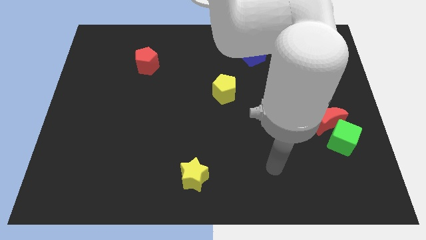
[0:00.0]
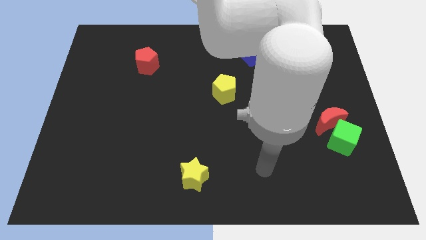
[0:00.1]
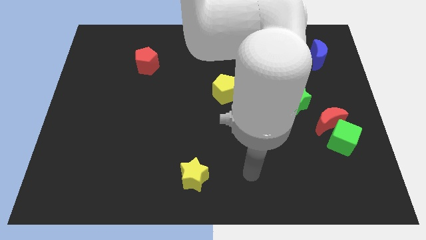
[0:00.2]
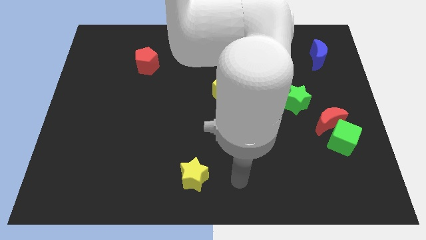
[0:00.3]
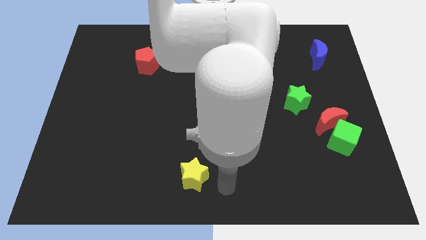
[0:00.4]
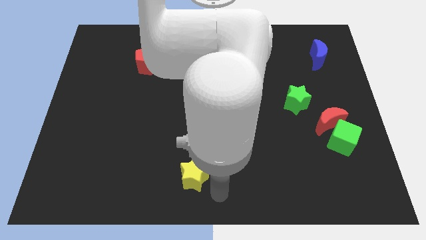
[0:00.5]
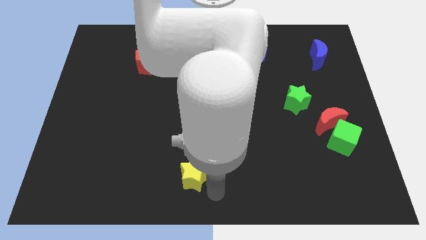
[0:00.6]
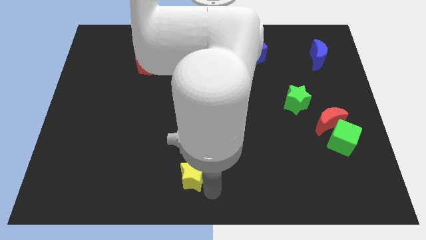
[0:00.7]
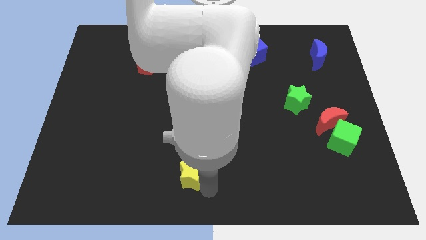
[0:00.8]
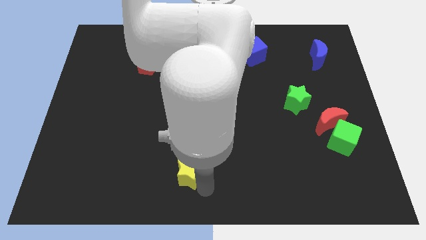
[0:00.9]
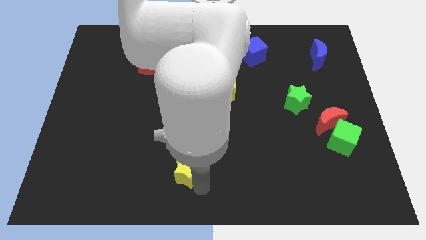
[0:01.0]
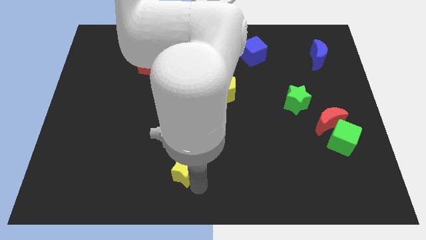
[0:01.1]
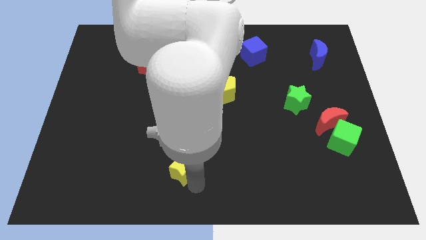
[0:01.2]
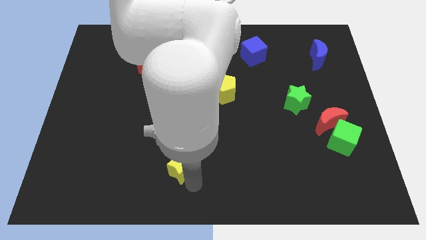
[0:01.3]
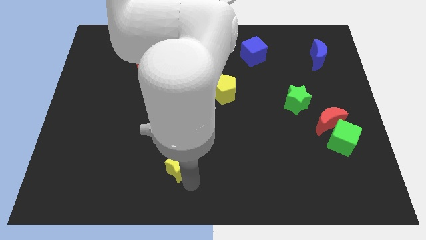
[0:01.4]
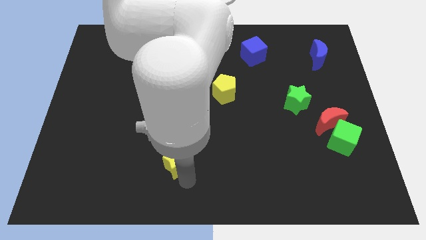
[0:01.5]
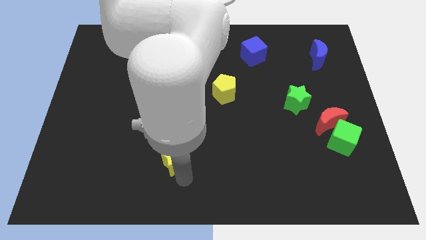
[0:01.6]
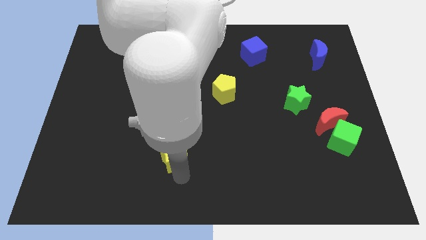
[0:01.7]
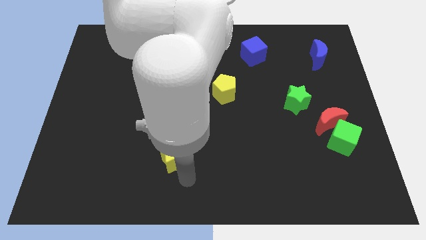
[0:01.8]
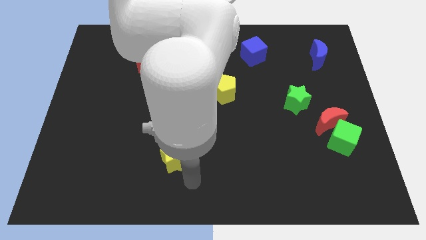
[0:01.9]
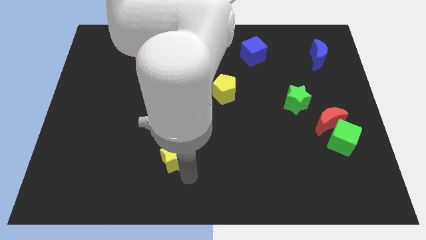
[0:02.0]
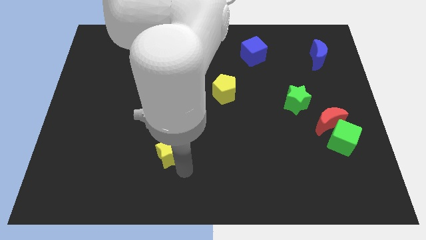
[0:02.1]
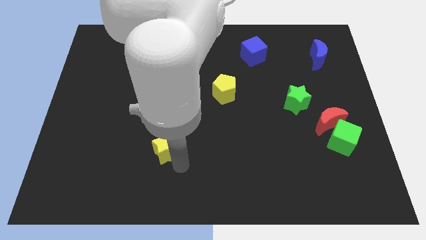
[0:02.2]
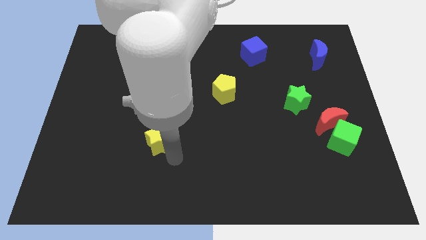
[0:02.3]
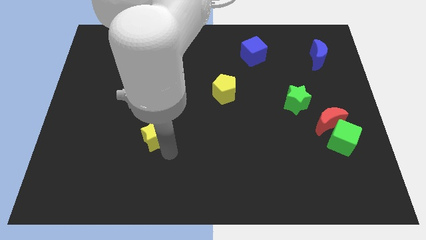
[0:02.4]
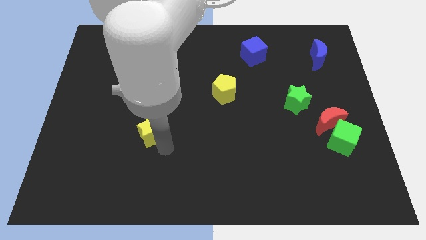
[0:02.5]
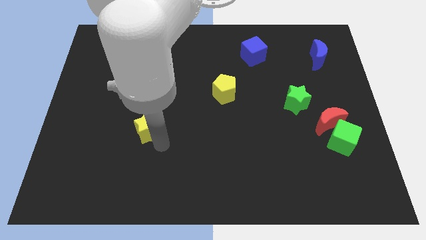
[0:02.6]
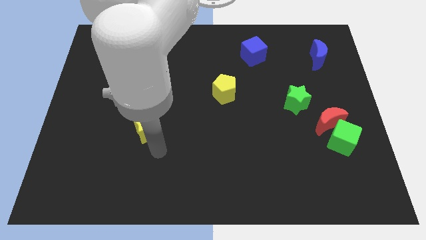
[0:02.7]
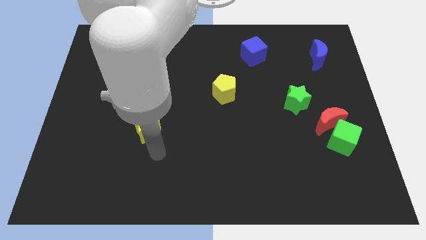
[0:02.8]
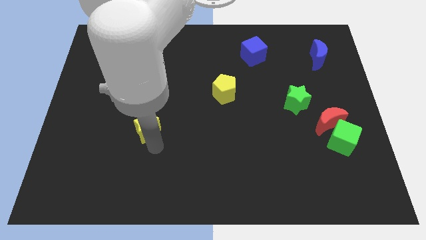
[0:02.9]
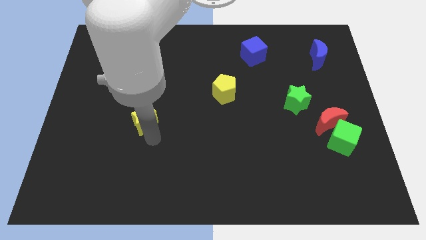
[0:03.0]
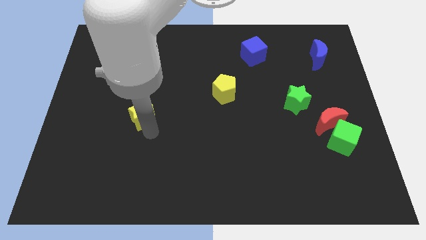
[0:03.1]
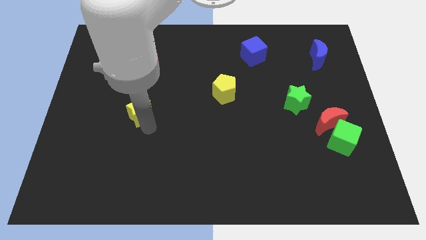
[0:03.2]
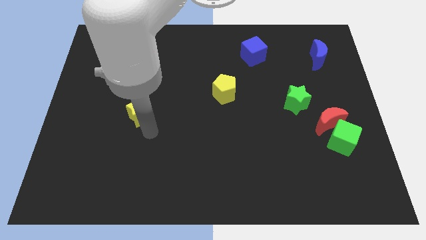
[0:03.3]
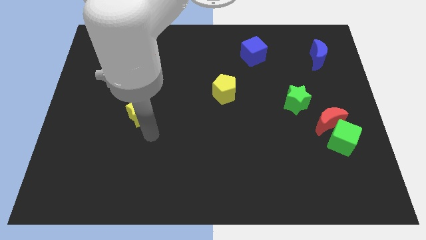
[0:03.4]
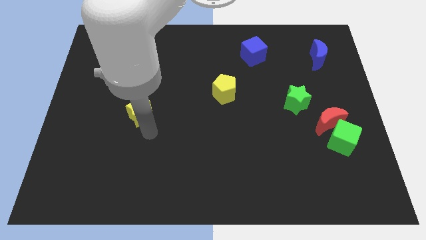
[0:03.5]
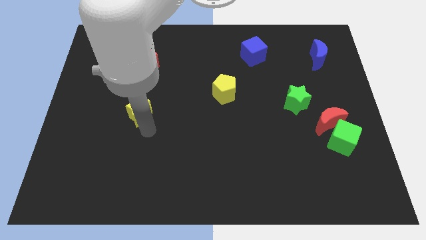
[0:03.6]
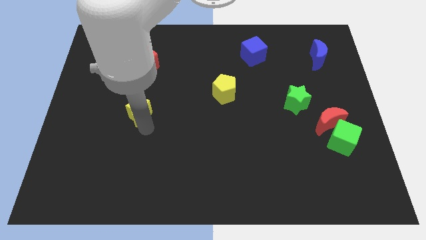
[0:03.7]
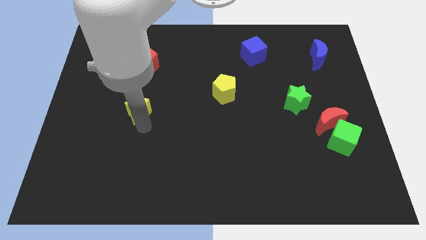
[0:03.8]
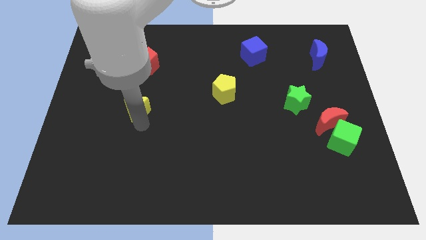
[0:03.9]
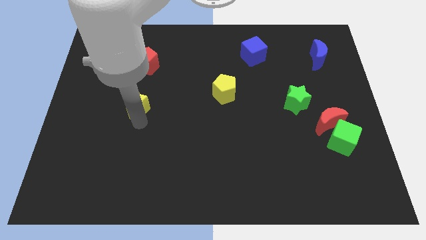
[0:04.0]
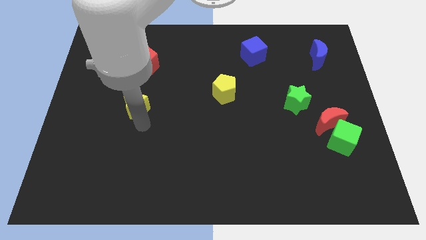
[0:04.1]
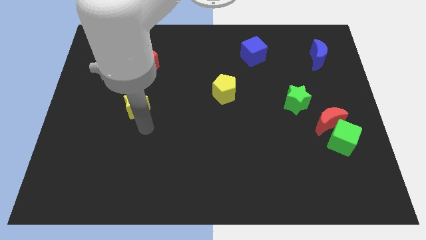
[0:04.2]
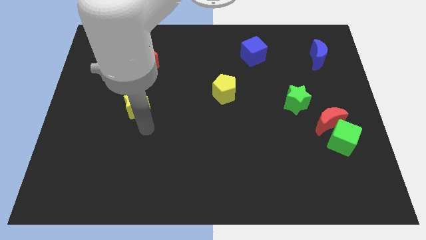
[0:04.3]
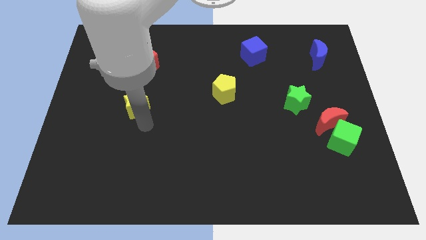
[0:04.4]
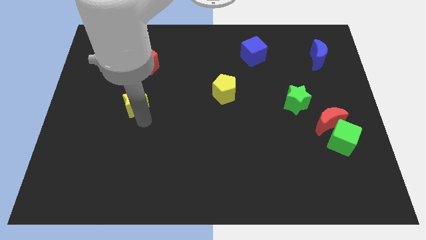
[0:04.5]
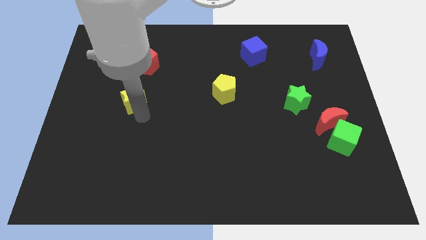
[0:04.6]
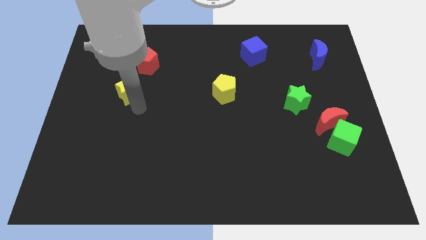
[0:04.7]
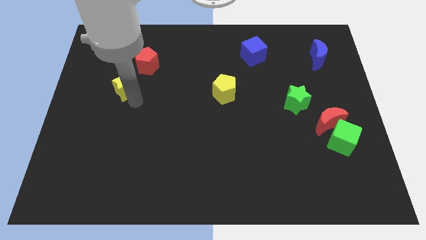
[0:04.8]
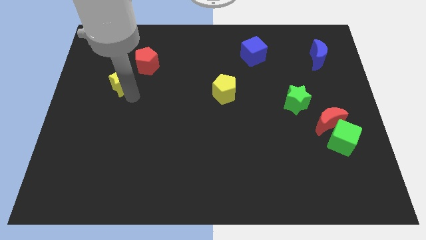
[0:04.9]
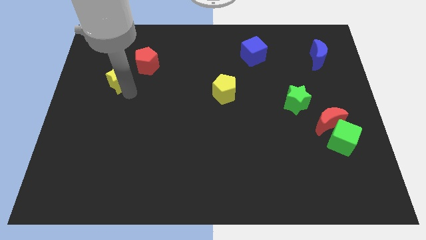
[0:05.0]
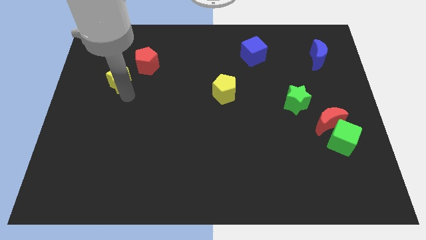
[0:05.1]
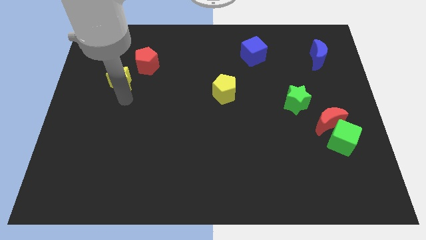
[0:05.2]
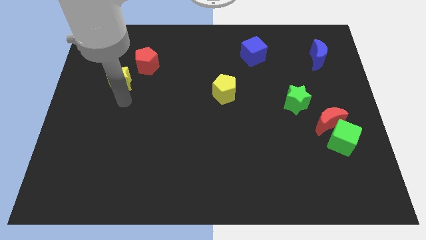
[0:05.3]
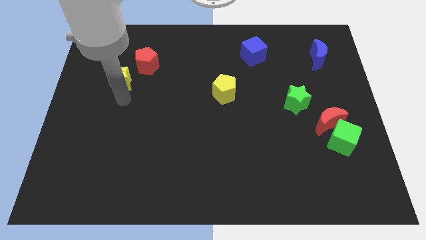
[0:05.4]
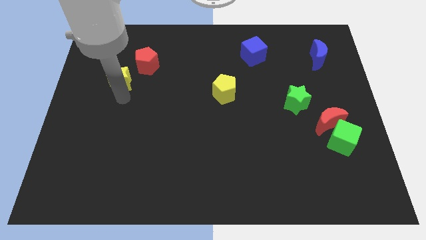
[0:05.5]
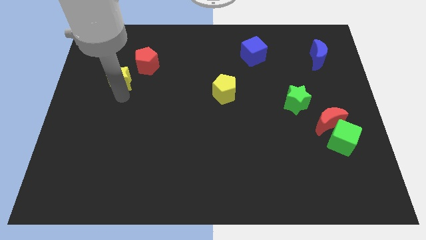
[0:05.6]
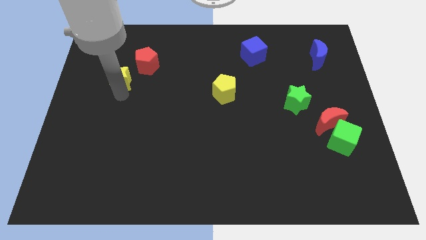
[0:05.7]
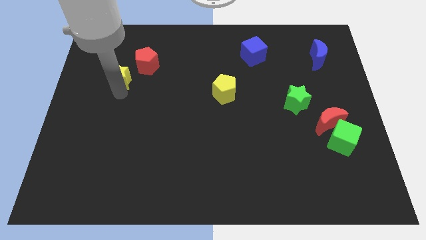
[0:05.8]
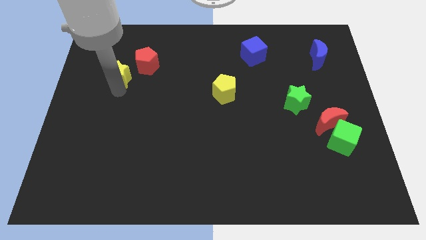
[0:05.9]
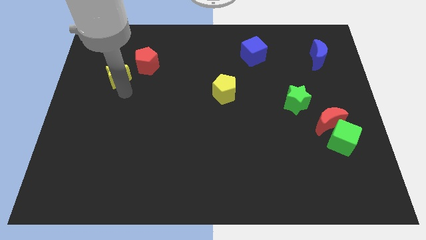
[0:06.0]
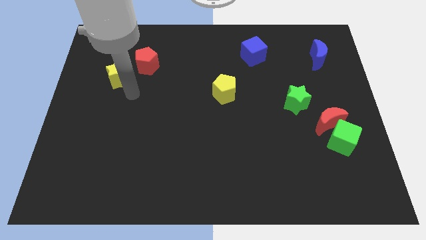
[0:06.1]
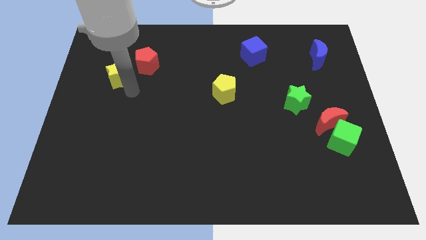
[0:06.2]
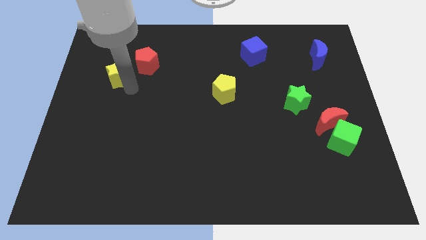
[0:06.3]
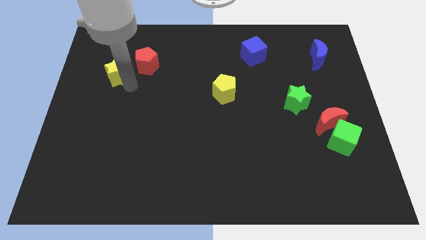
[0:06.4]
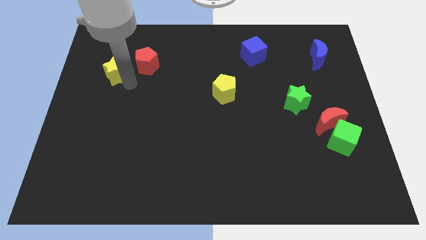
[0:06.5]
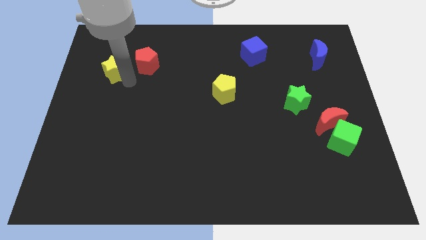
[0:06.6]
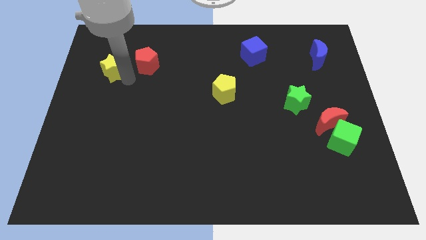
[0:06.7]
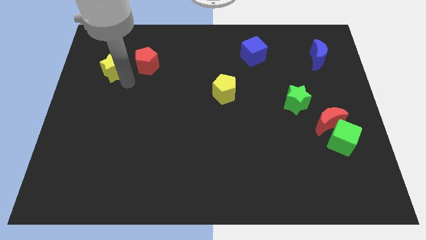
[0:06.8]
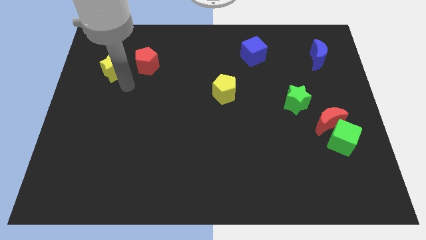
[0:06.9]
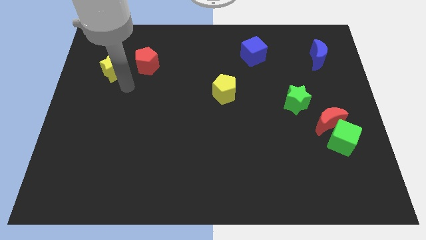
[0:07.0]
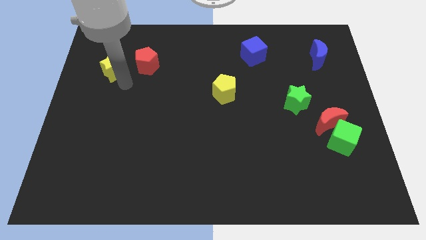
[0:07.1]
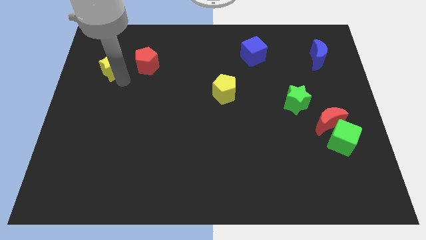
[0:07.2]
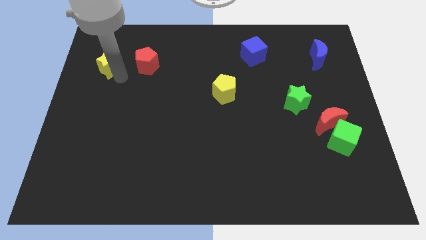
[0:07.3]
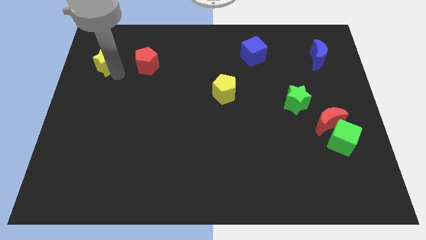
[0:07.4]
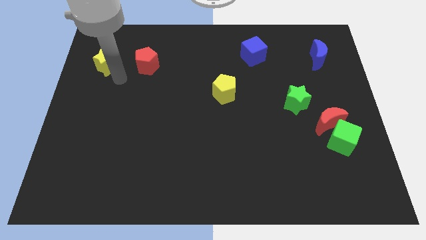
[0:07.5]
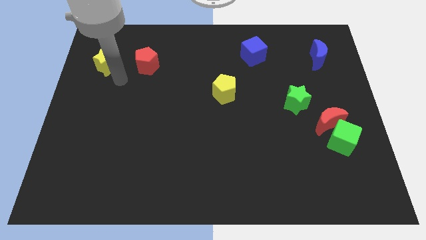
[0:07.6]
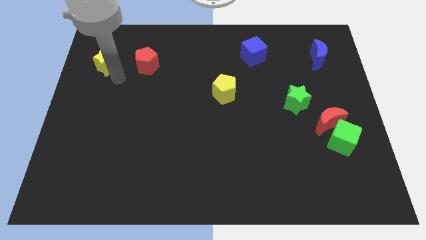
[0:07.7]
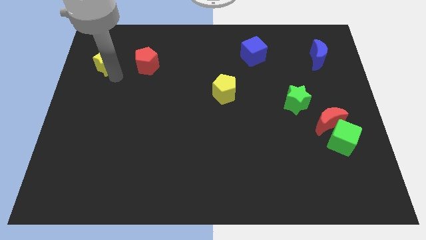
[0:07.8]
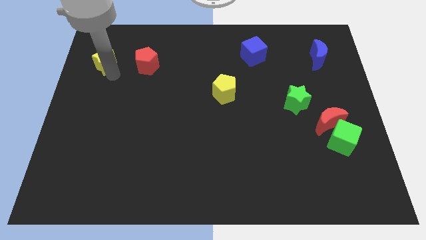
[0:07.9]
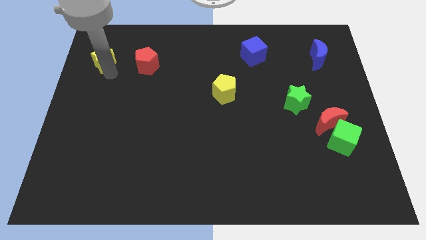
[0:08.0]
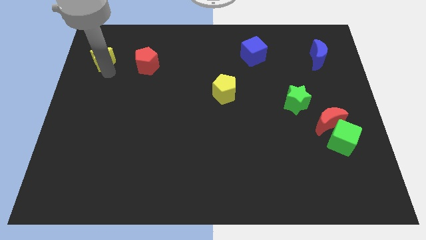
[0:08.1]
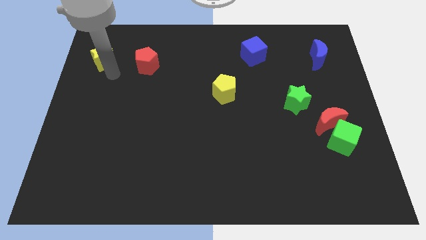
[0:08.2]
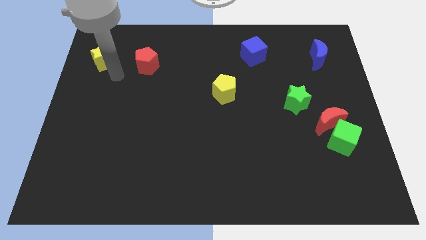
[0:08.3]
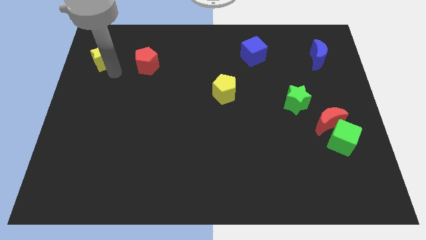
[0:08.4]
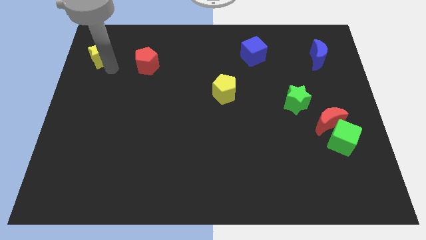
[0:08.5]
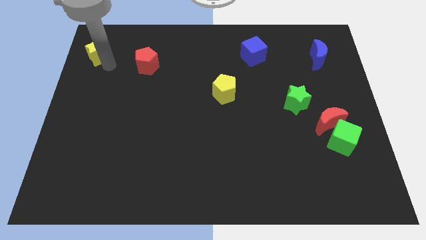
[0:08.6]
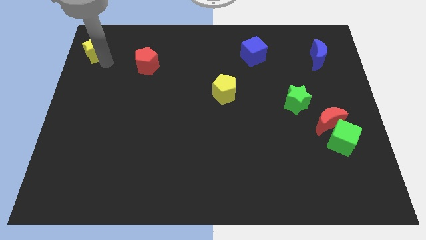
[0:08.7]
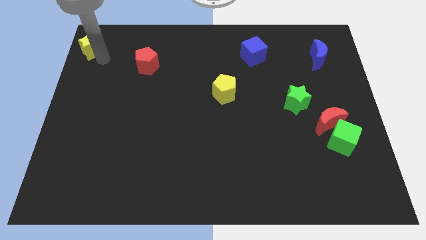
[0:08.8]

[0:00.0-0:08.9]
push the yellow star to the top left
